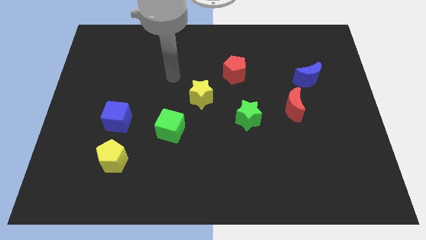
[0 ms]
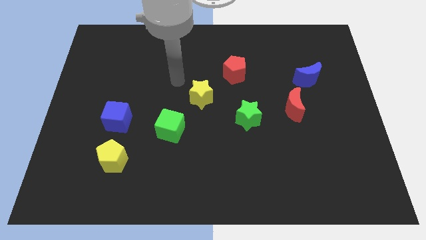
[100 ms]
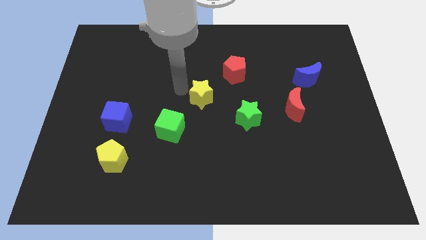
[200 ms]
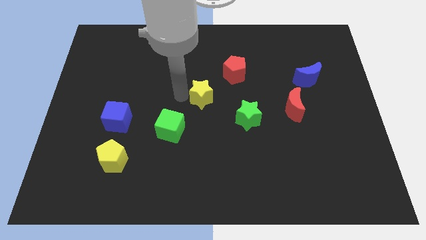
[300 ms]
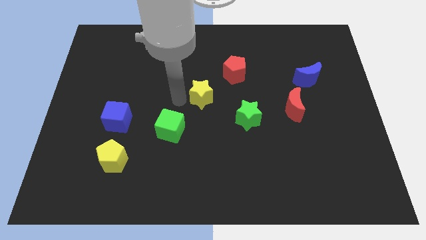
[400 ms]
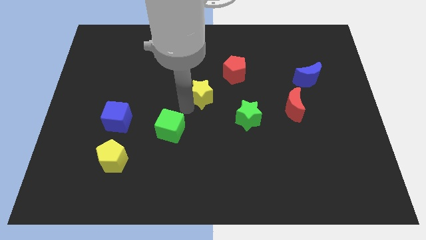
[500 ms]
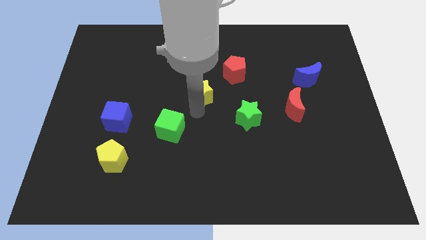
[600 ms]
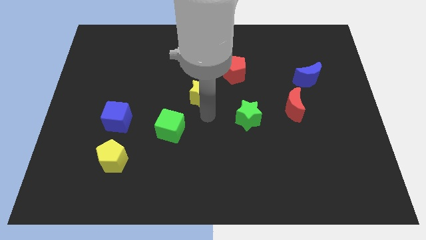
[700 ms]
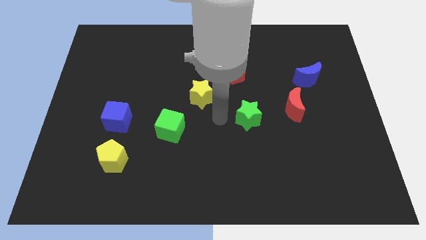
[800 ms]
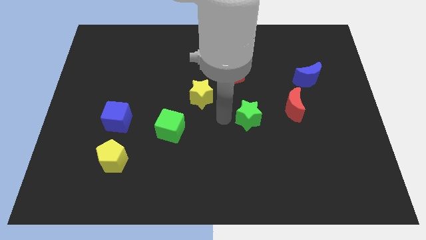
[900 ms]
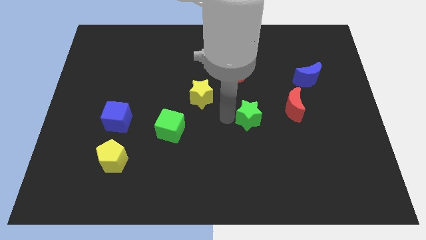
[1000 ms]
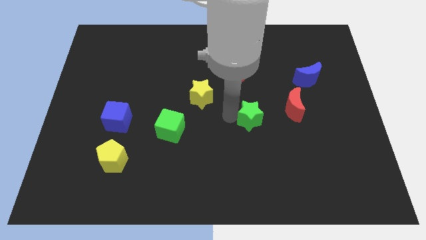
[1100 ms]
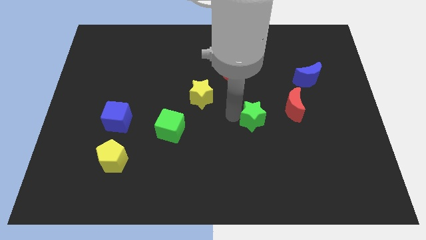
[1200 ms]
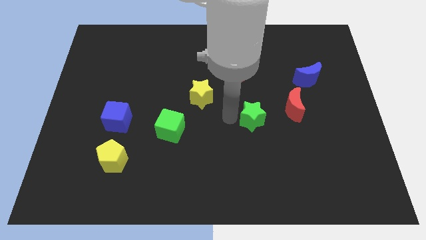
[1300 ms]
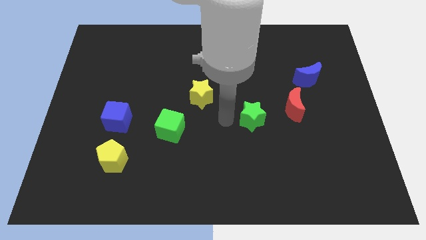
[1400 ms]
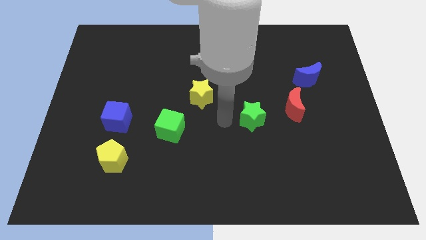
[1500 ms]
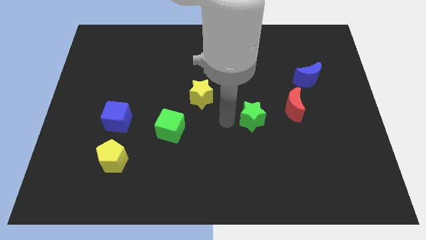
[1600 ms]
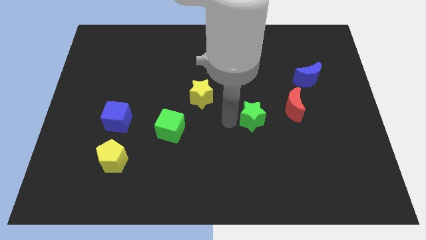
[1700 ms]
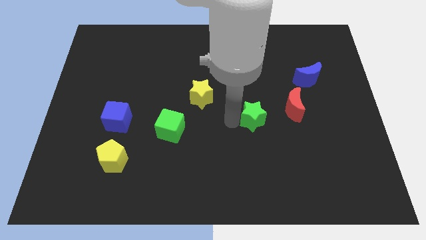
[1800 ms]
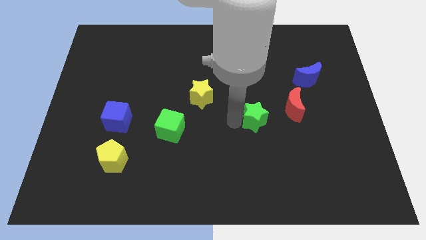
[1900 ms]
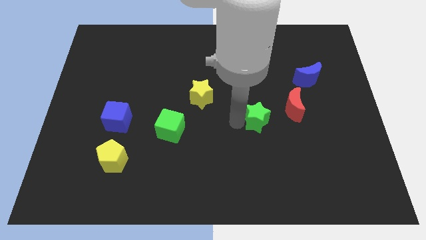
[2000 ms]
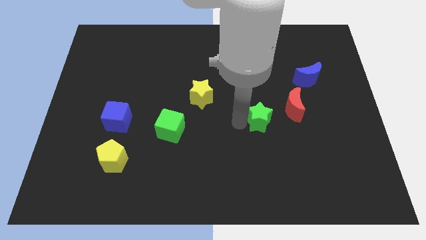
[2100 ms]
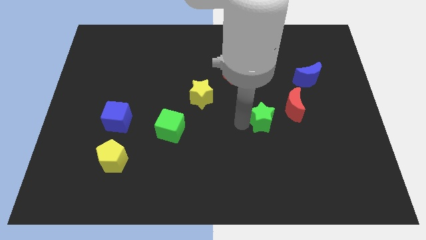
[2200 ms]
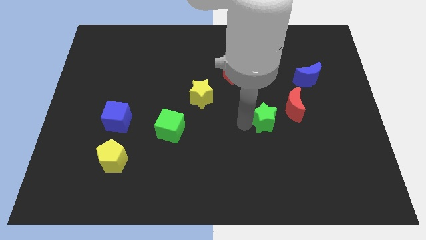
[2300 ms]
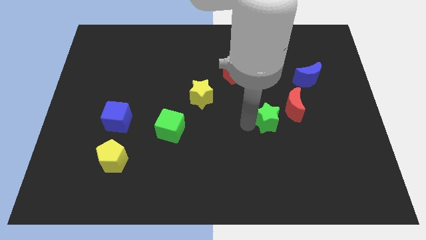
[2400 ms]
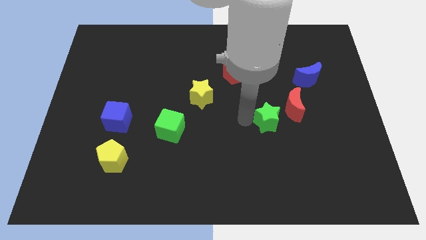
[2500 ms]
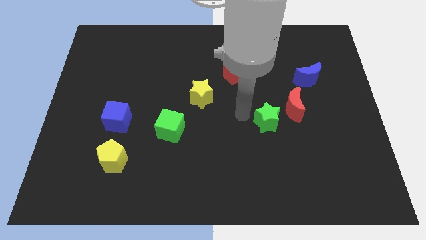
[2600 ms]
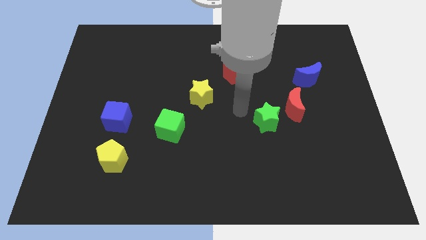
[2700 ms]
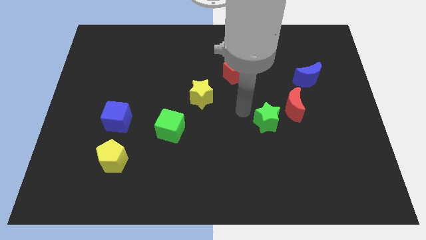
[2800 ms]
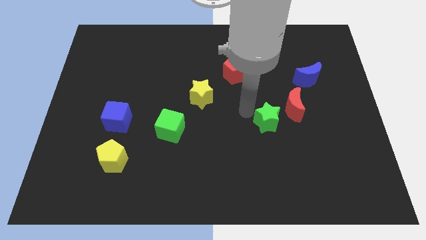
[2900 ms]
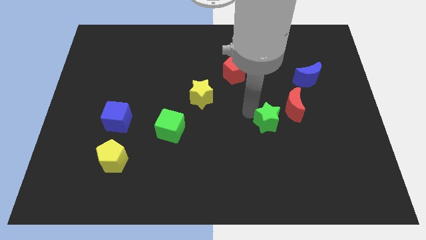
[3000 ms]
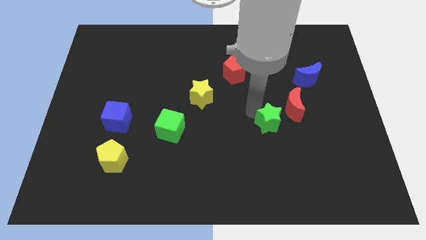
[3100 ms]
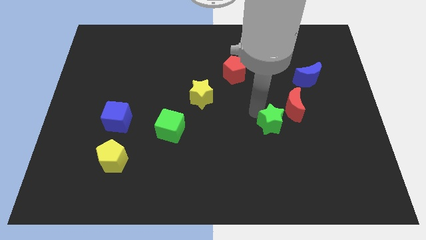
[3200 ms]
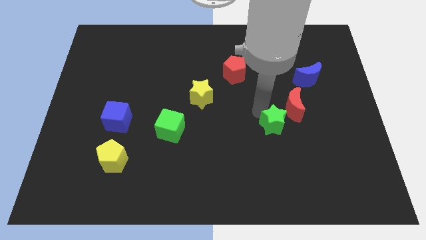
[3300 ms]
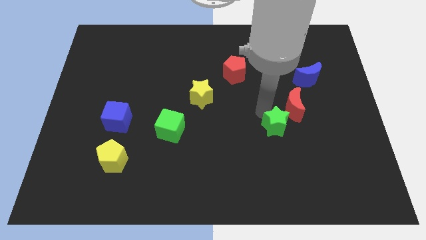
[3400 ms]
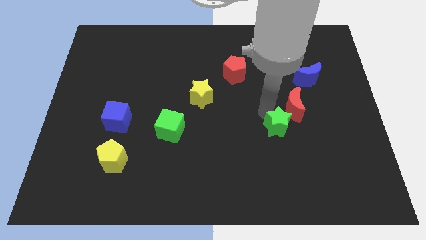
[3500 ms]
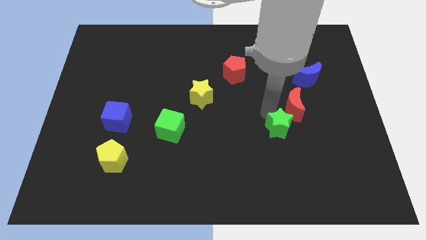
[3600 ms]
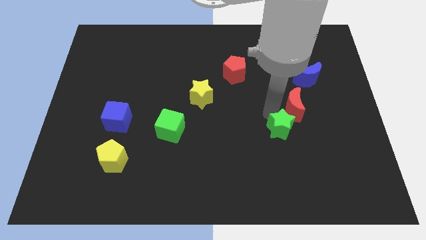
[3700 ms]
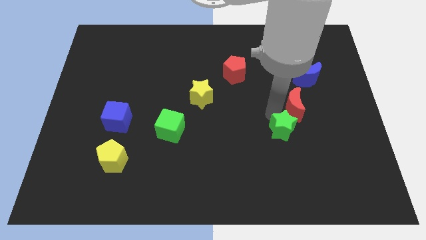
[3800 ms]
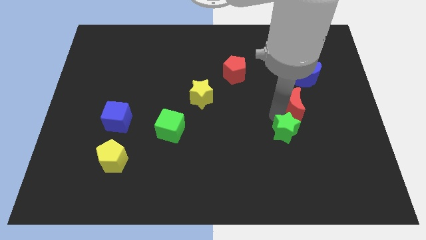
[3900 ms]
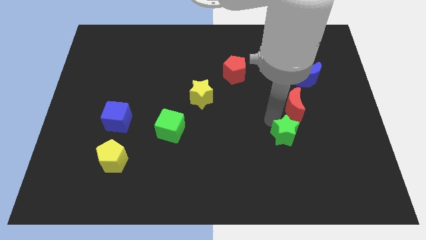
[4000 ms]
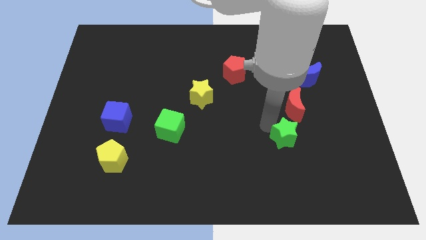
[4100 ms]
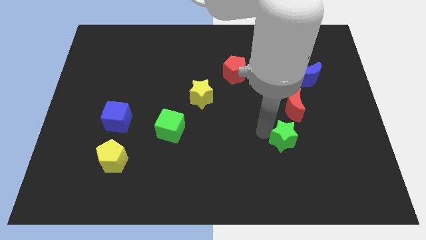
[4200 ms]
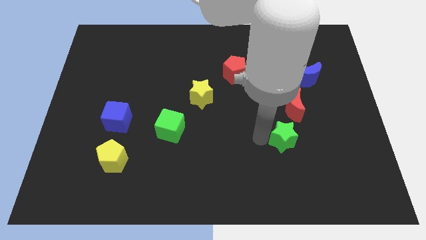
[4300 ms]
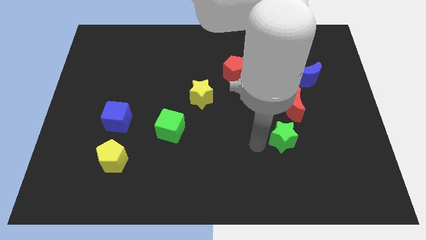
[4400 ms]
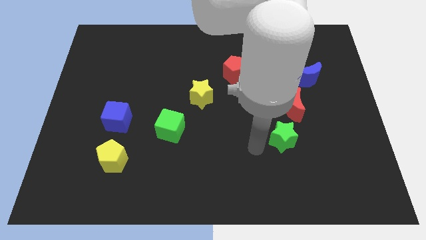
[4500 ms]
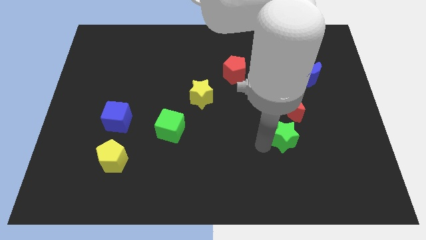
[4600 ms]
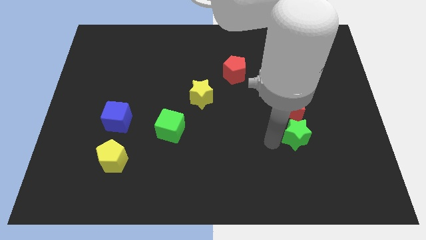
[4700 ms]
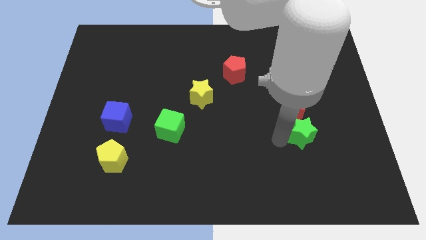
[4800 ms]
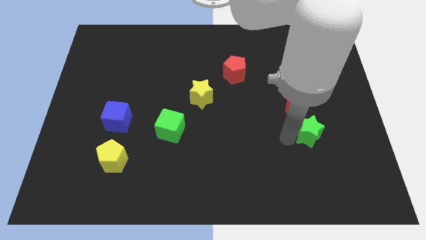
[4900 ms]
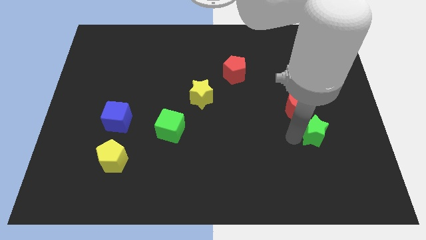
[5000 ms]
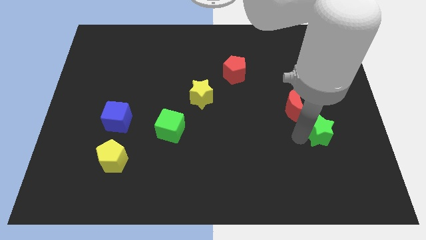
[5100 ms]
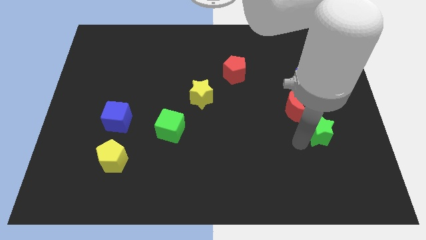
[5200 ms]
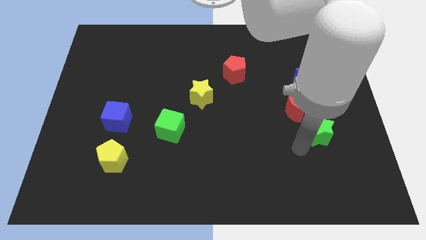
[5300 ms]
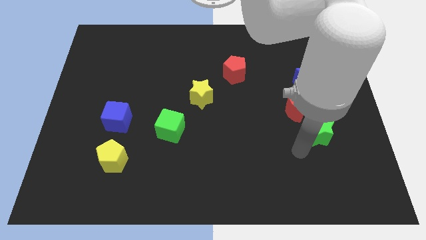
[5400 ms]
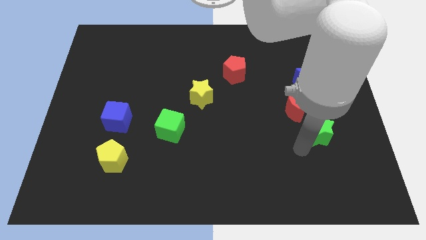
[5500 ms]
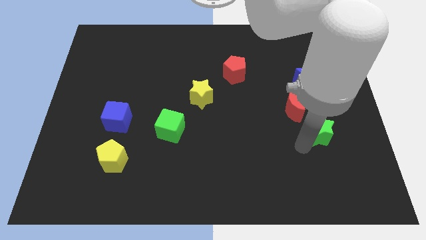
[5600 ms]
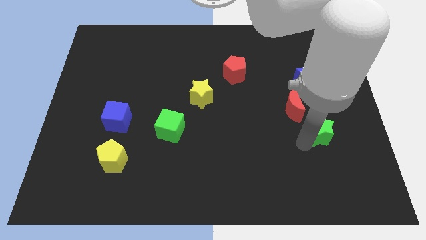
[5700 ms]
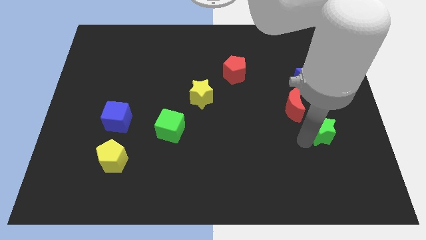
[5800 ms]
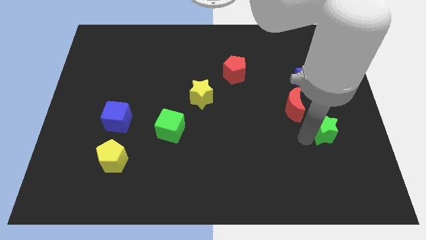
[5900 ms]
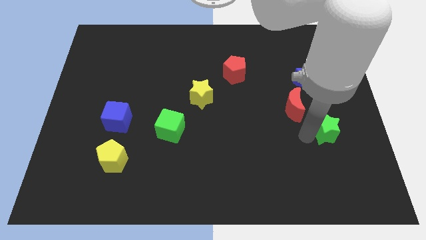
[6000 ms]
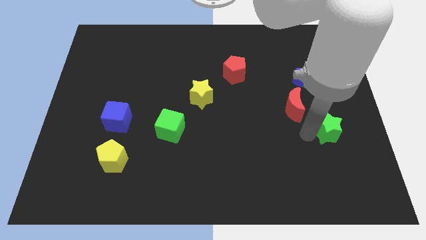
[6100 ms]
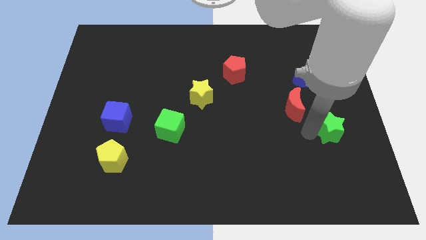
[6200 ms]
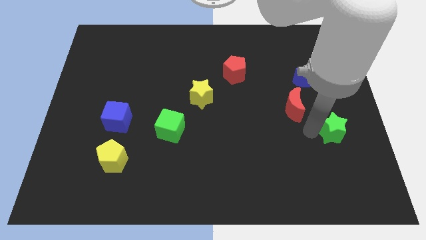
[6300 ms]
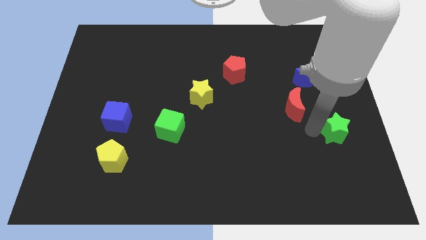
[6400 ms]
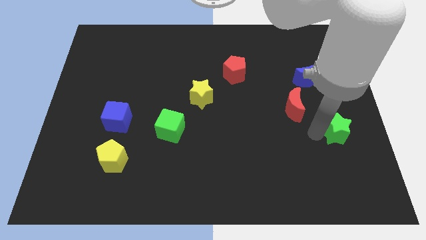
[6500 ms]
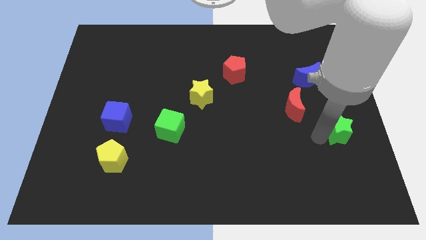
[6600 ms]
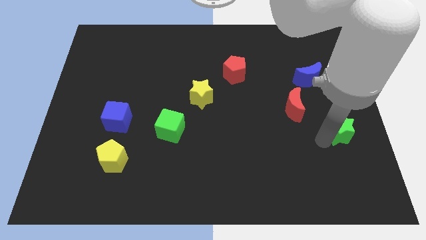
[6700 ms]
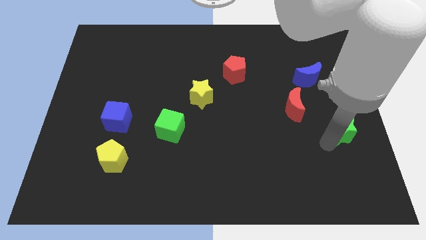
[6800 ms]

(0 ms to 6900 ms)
put the green star to the right side of the board
